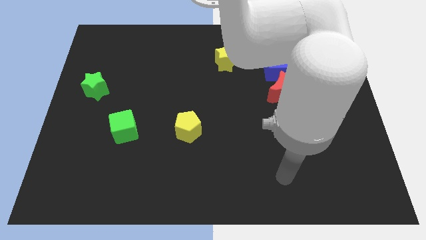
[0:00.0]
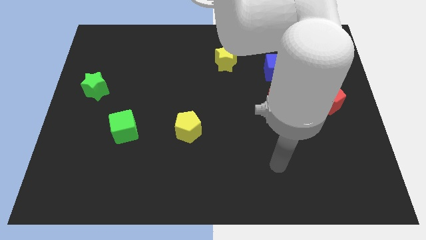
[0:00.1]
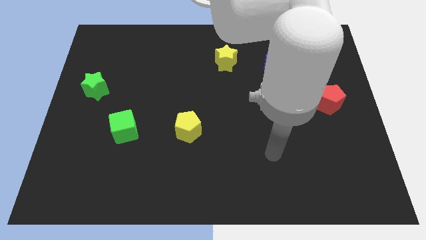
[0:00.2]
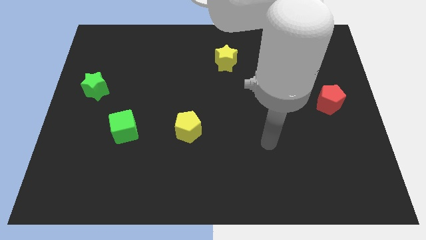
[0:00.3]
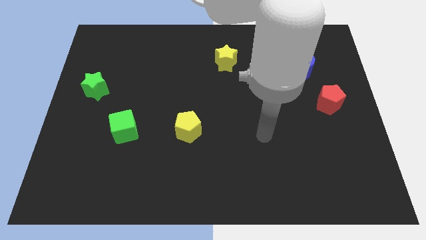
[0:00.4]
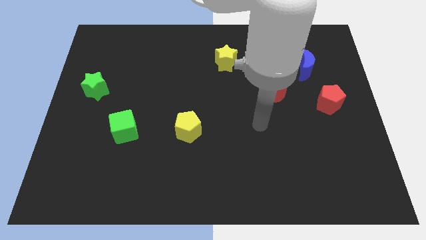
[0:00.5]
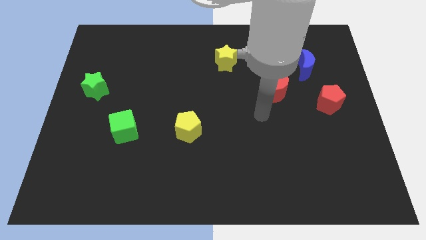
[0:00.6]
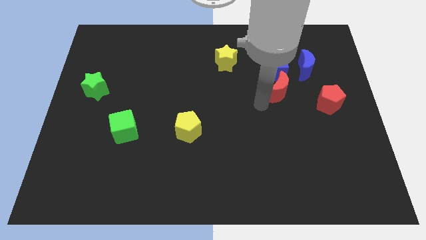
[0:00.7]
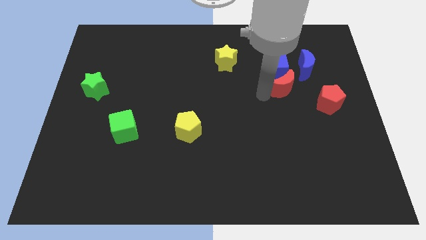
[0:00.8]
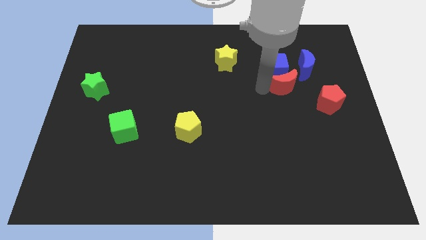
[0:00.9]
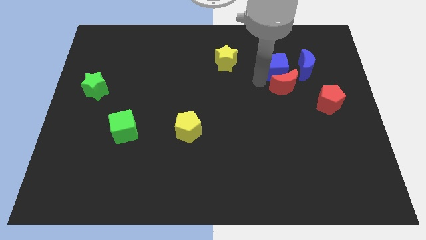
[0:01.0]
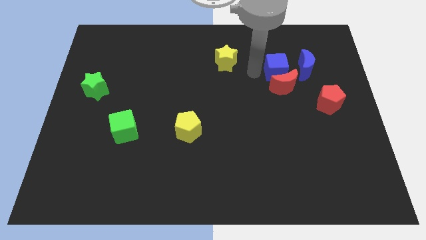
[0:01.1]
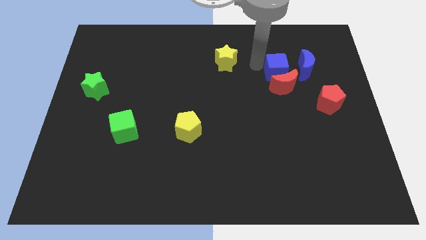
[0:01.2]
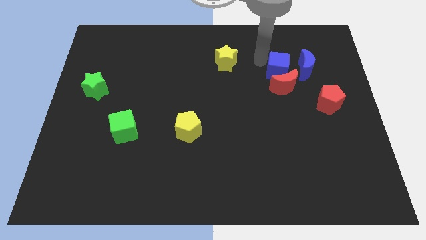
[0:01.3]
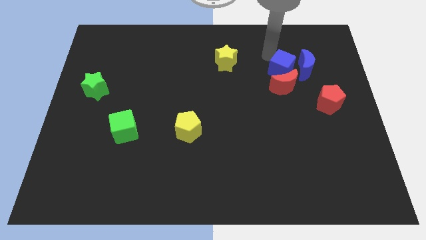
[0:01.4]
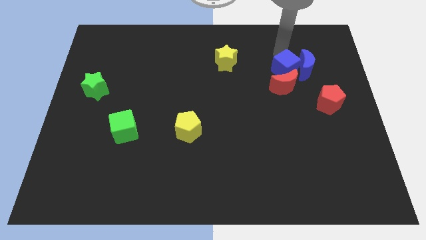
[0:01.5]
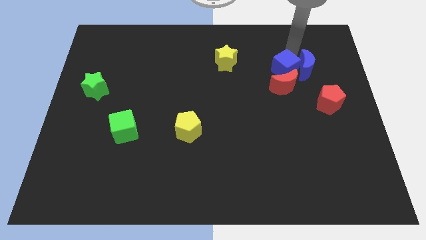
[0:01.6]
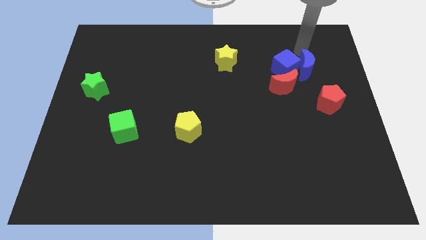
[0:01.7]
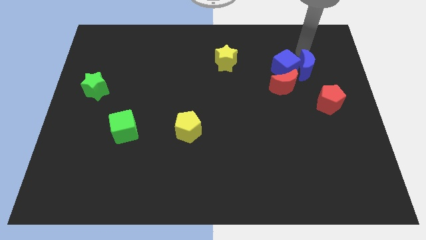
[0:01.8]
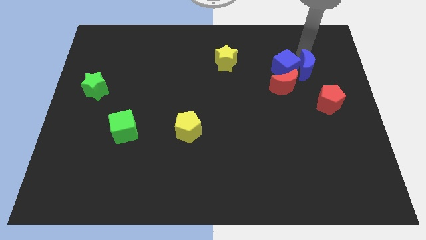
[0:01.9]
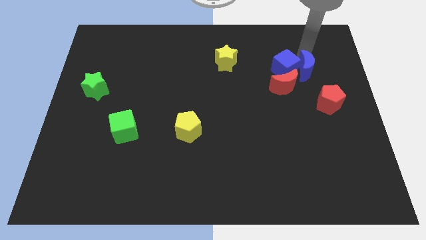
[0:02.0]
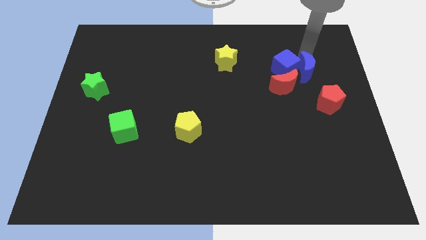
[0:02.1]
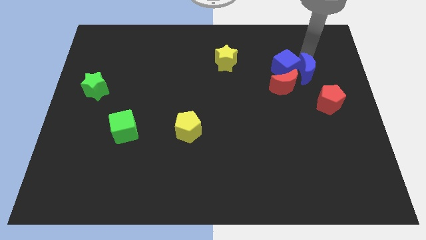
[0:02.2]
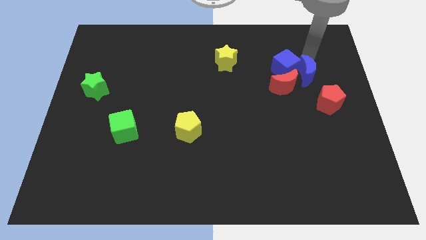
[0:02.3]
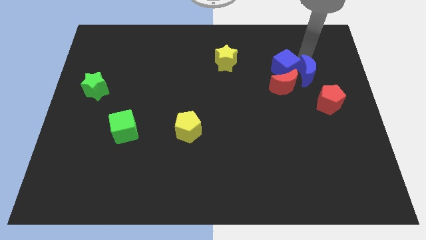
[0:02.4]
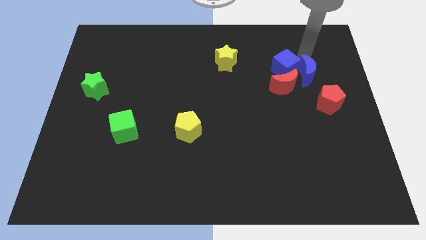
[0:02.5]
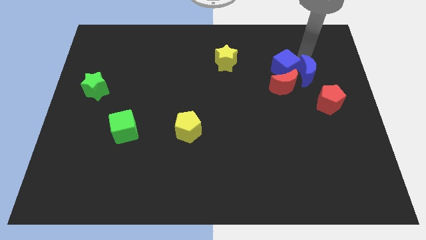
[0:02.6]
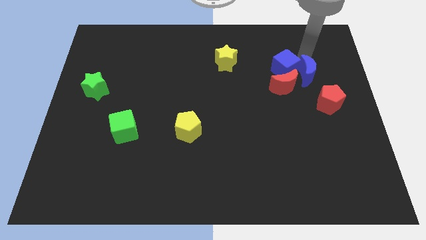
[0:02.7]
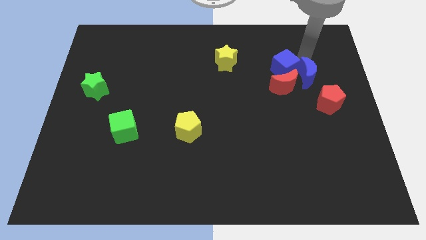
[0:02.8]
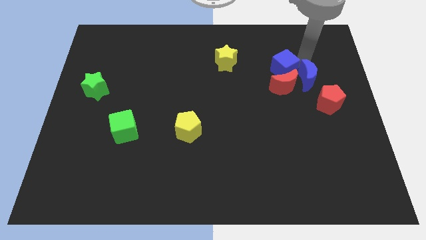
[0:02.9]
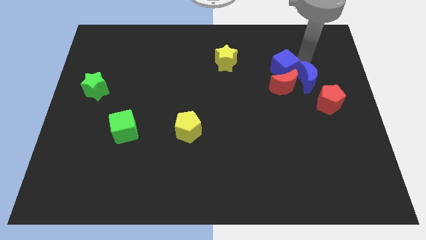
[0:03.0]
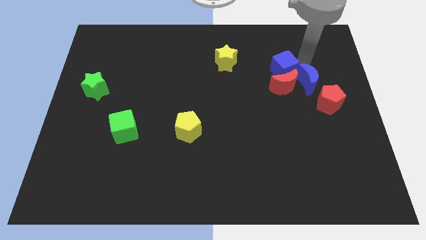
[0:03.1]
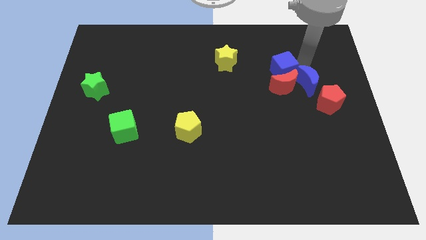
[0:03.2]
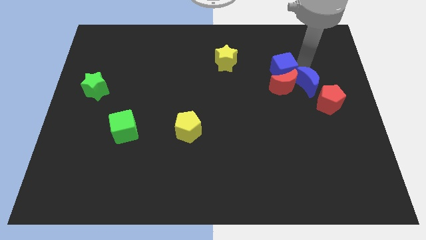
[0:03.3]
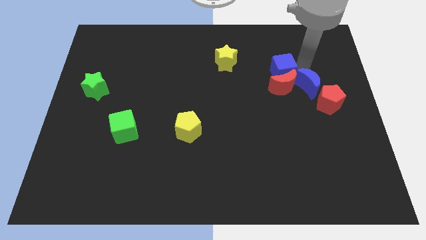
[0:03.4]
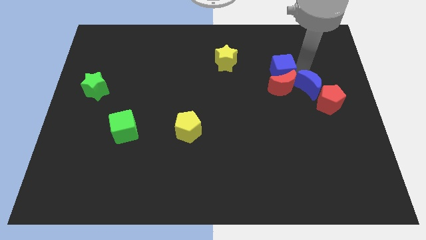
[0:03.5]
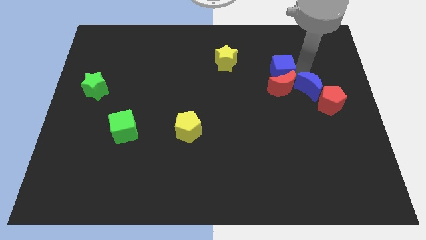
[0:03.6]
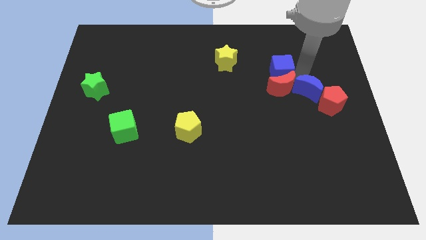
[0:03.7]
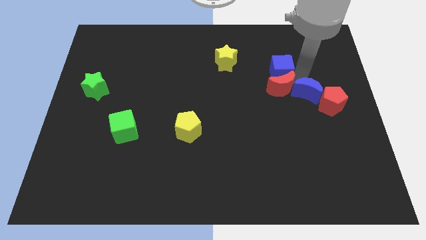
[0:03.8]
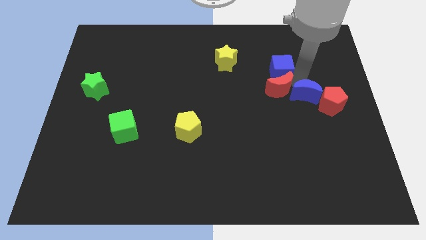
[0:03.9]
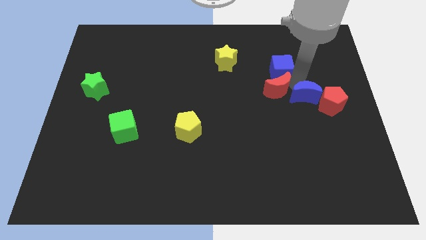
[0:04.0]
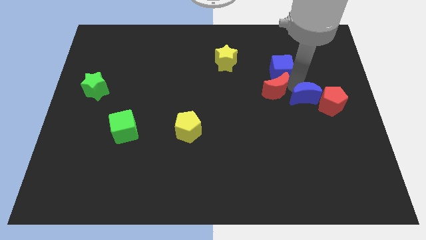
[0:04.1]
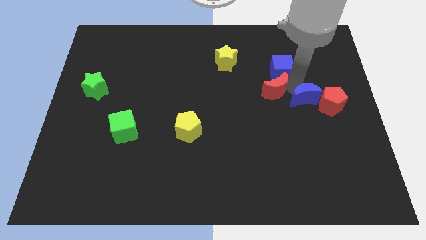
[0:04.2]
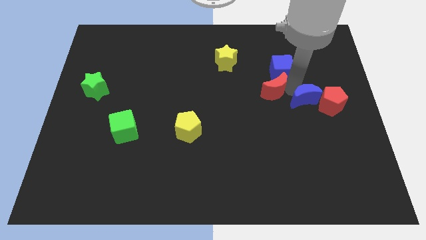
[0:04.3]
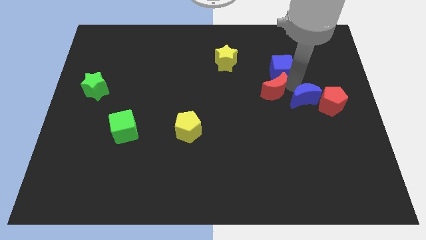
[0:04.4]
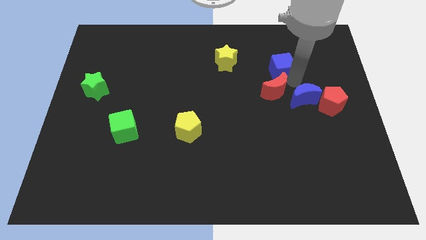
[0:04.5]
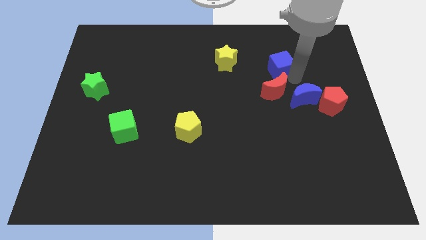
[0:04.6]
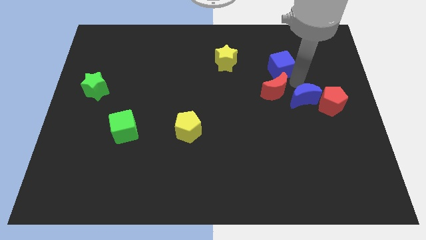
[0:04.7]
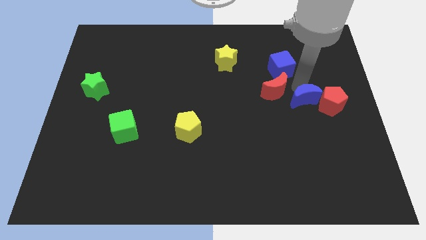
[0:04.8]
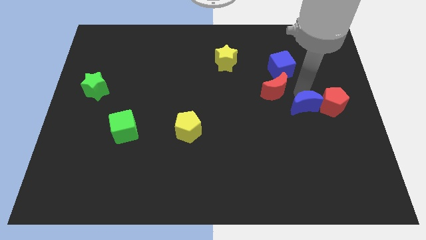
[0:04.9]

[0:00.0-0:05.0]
put the blue moon to the bottom left side of the red pentagon

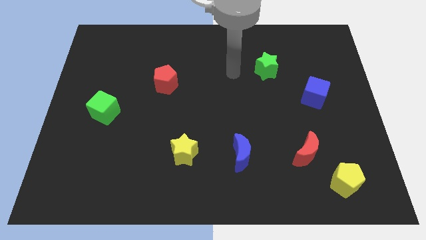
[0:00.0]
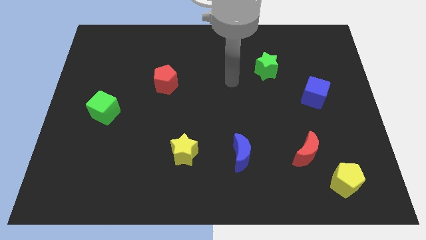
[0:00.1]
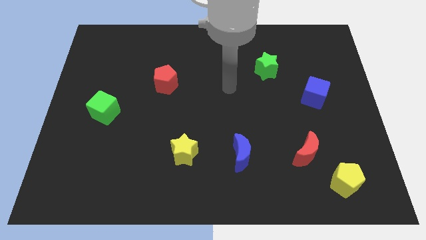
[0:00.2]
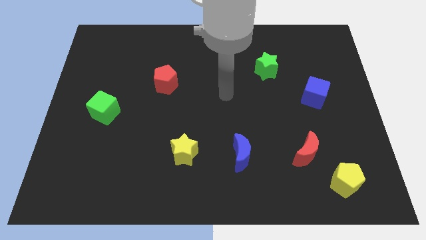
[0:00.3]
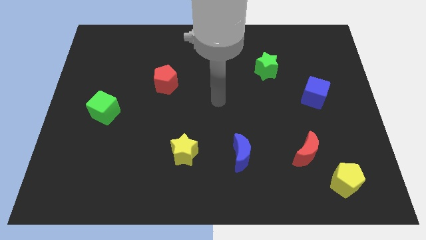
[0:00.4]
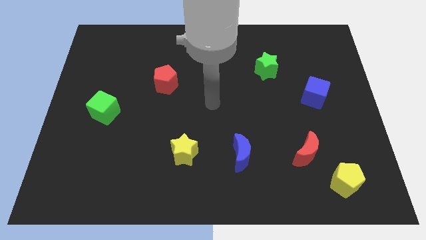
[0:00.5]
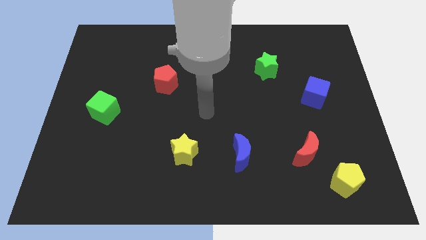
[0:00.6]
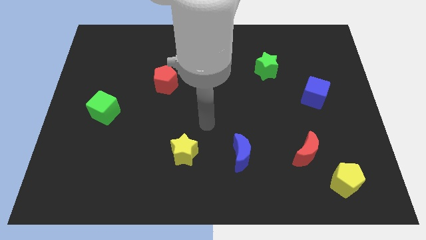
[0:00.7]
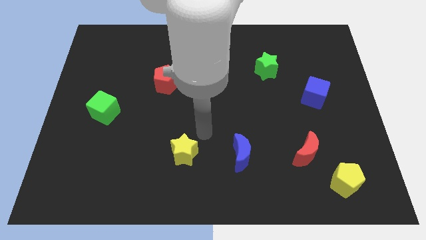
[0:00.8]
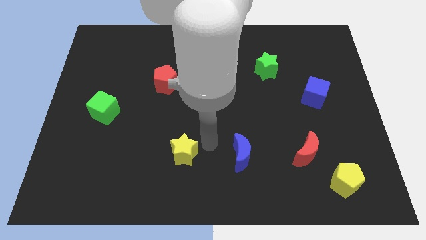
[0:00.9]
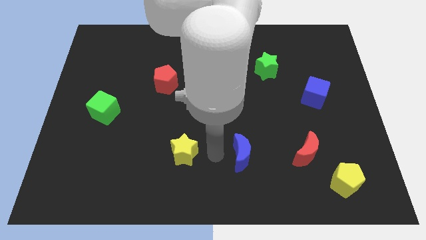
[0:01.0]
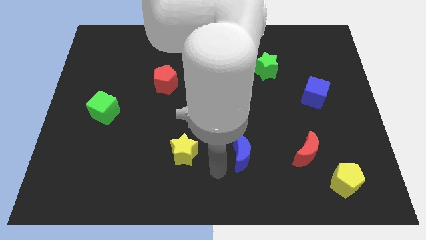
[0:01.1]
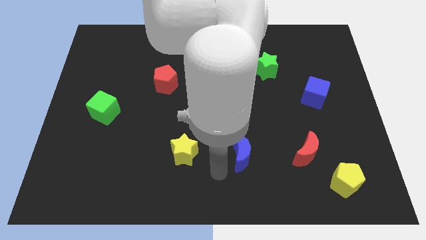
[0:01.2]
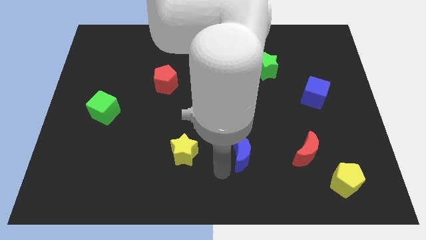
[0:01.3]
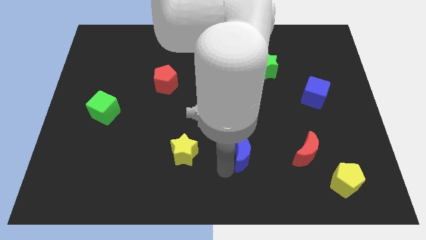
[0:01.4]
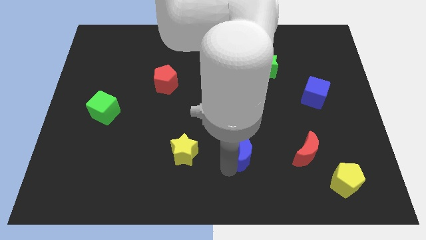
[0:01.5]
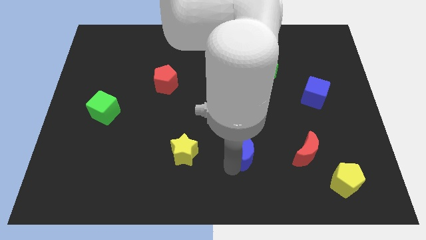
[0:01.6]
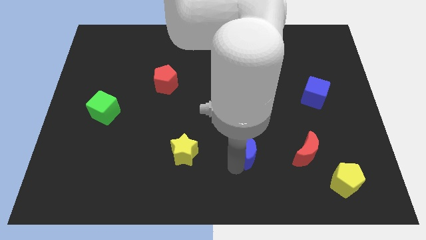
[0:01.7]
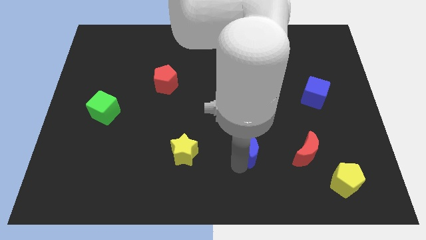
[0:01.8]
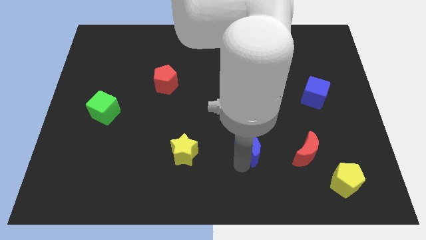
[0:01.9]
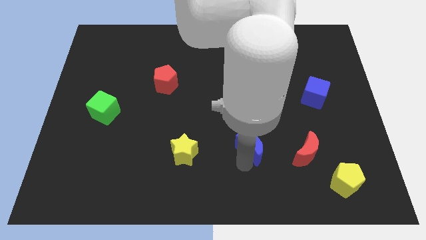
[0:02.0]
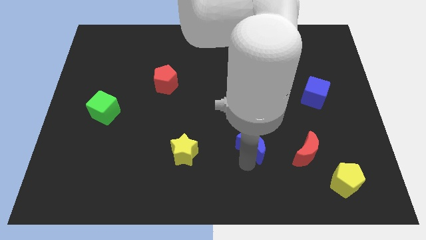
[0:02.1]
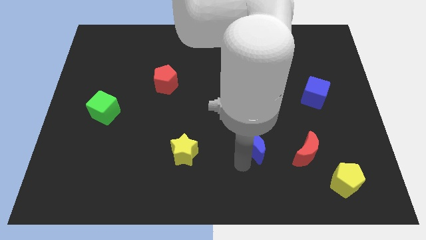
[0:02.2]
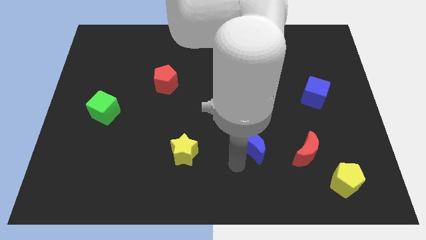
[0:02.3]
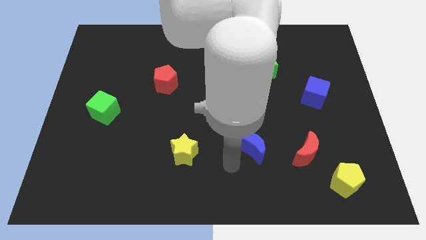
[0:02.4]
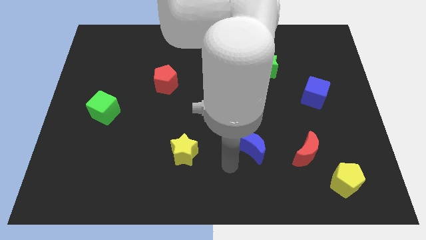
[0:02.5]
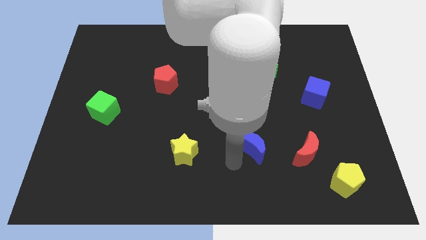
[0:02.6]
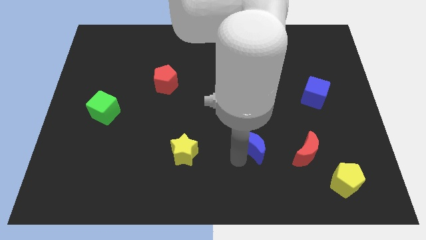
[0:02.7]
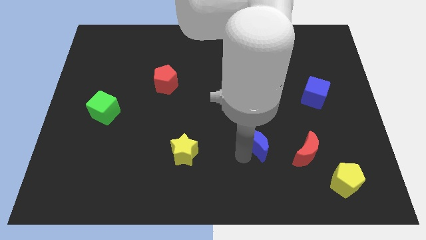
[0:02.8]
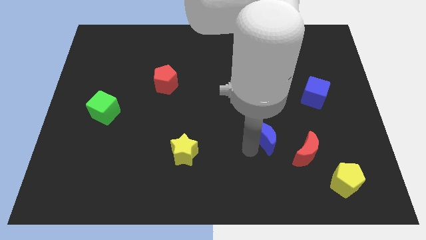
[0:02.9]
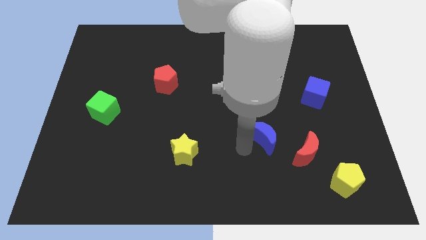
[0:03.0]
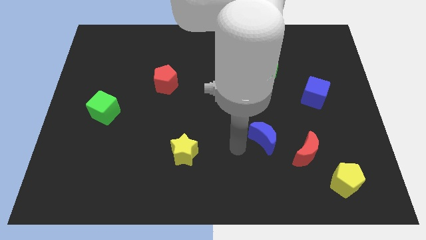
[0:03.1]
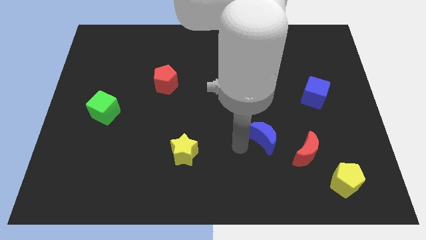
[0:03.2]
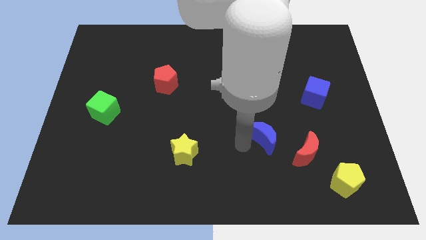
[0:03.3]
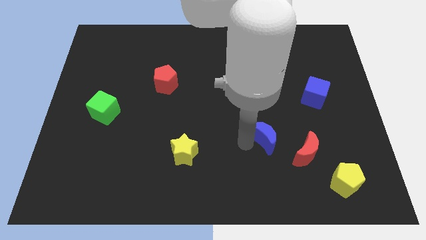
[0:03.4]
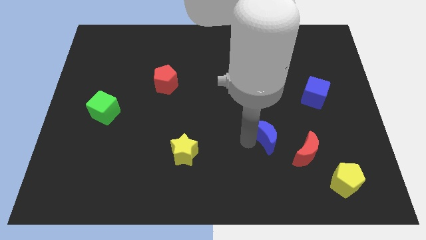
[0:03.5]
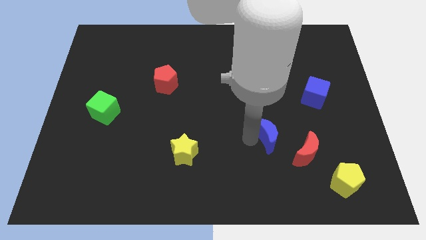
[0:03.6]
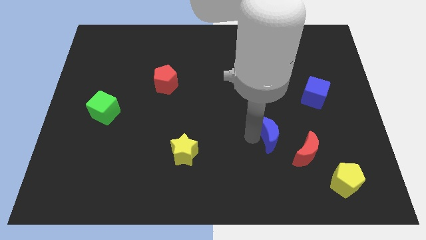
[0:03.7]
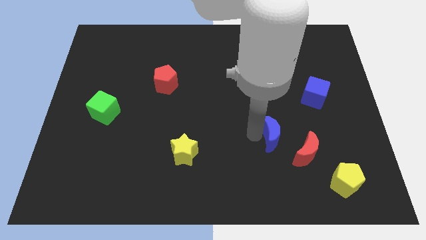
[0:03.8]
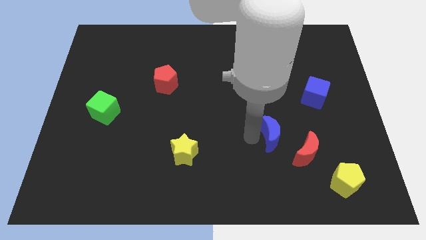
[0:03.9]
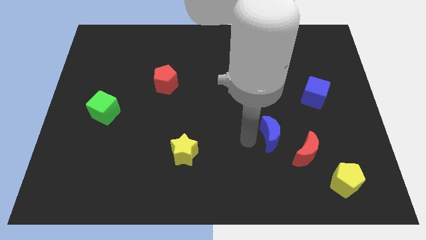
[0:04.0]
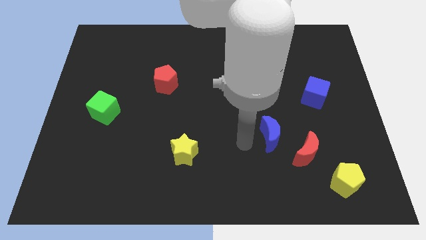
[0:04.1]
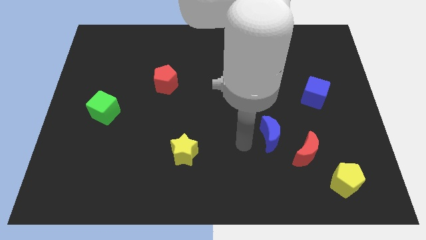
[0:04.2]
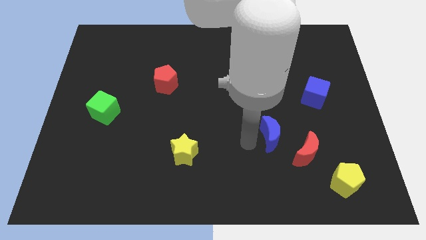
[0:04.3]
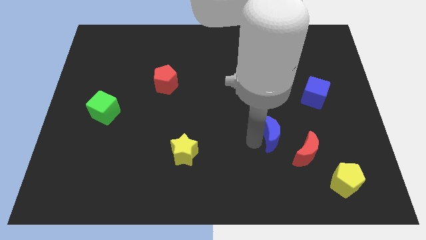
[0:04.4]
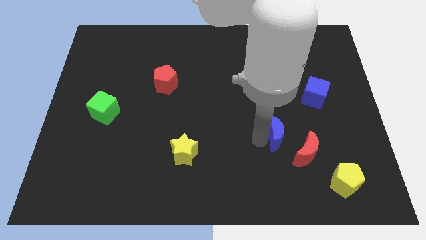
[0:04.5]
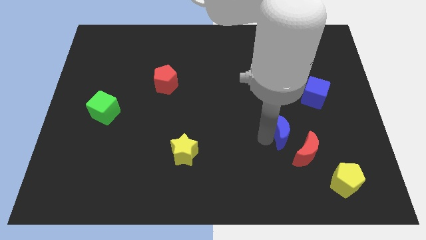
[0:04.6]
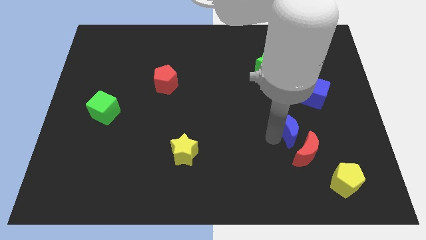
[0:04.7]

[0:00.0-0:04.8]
slide the blue moon above the red moon
